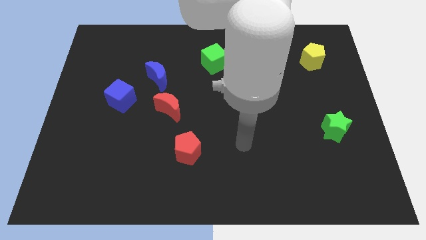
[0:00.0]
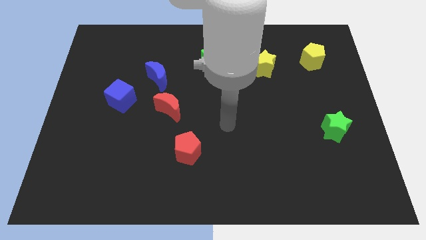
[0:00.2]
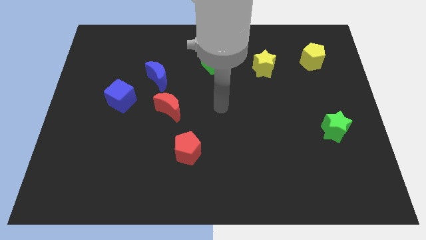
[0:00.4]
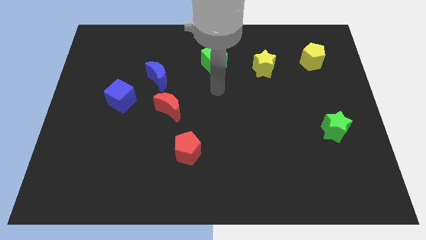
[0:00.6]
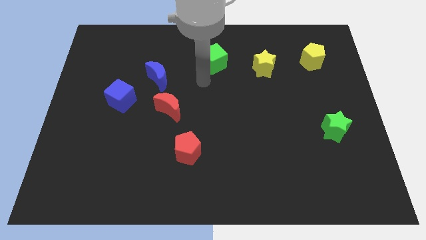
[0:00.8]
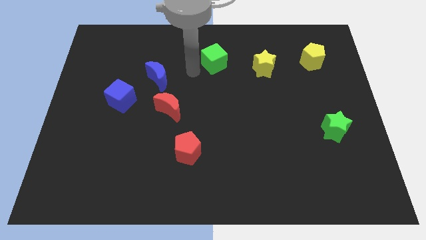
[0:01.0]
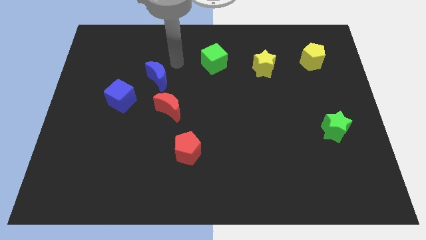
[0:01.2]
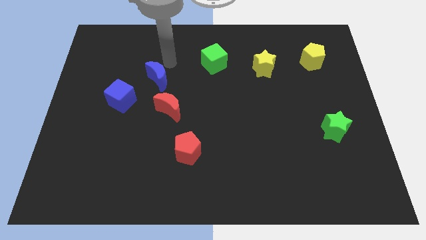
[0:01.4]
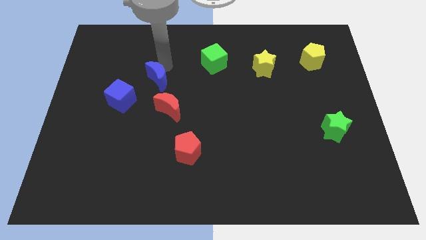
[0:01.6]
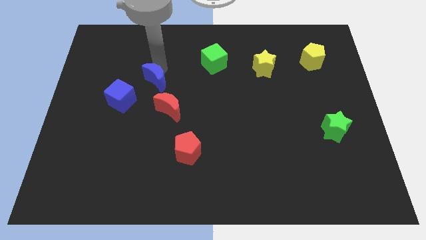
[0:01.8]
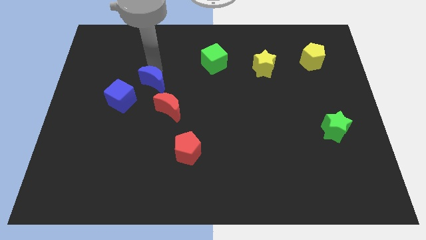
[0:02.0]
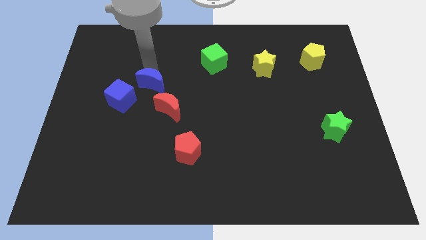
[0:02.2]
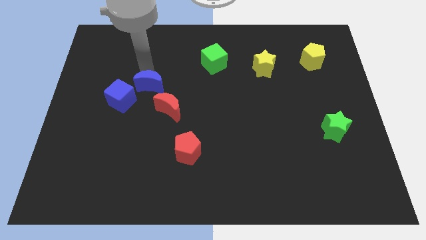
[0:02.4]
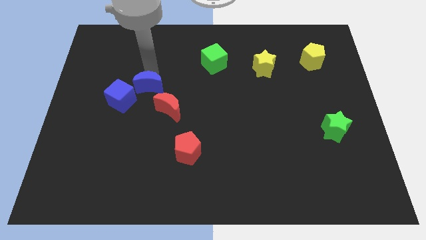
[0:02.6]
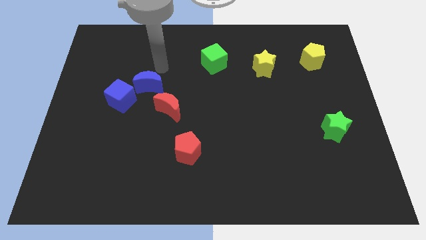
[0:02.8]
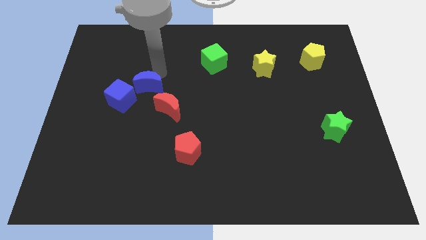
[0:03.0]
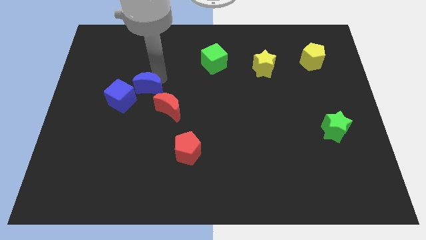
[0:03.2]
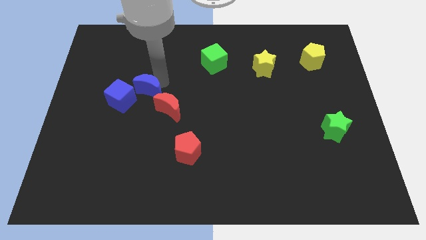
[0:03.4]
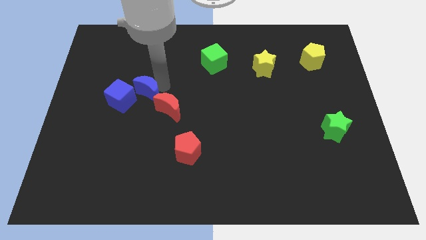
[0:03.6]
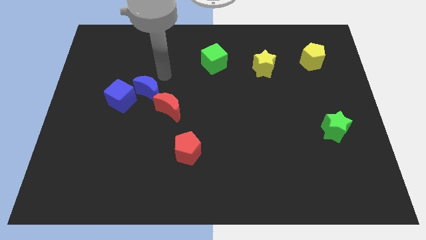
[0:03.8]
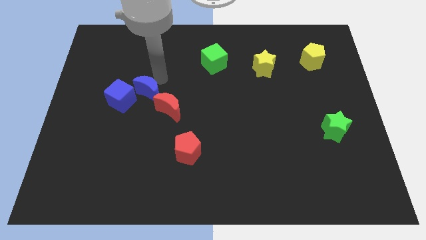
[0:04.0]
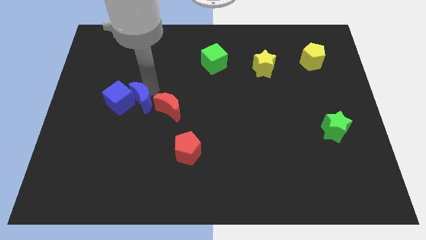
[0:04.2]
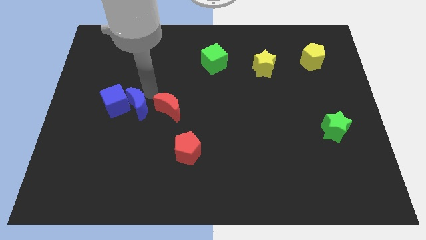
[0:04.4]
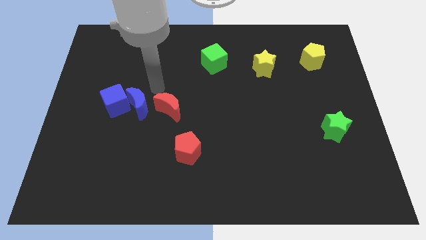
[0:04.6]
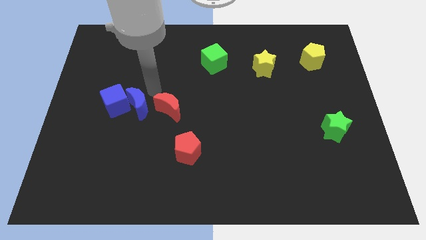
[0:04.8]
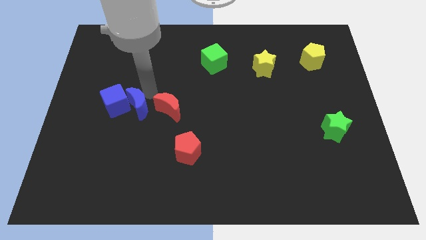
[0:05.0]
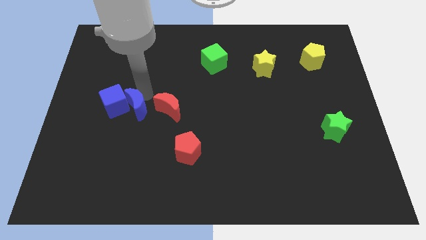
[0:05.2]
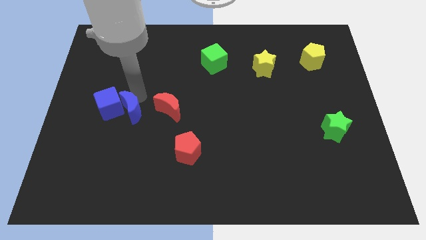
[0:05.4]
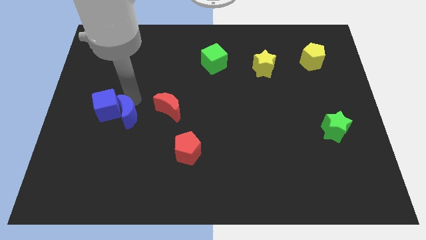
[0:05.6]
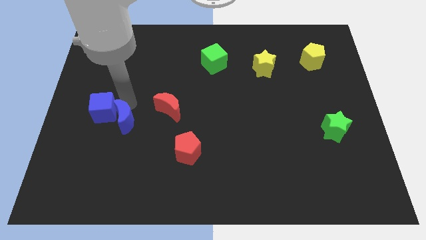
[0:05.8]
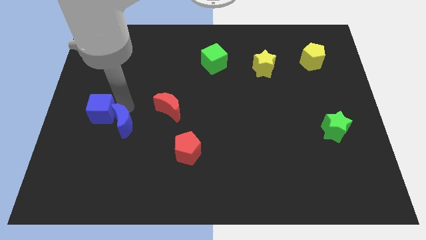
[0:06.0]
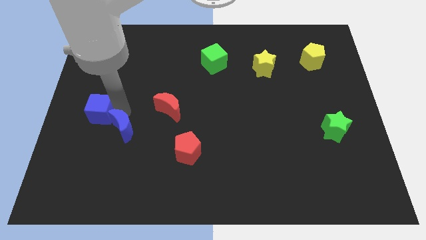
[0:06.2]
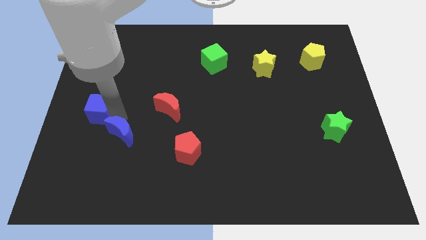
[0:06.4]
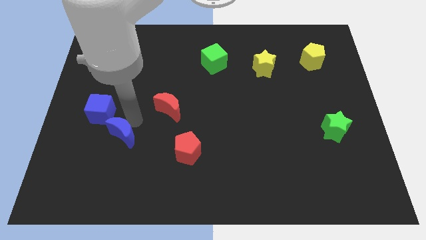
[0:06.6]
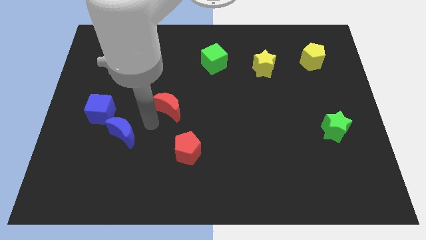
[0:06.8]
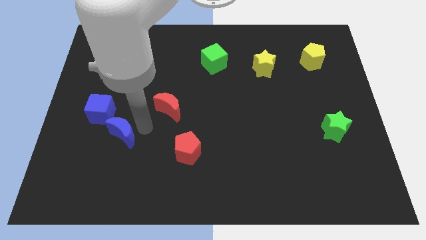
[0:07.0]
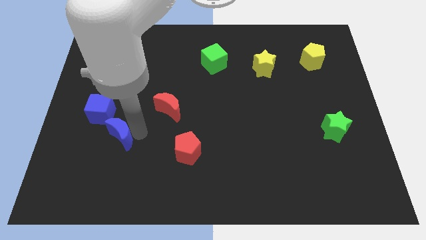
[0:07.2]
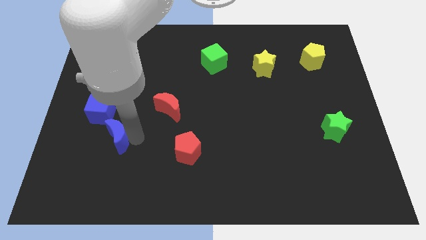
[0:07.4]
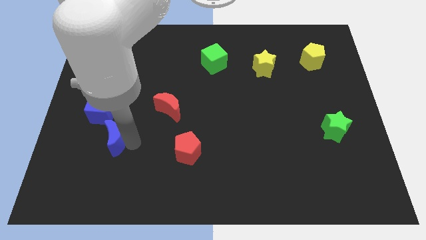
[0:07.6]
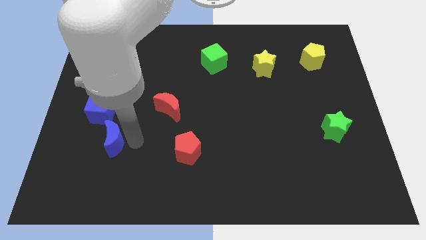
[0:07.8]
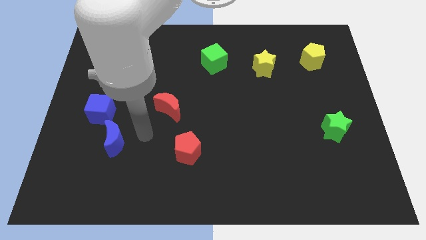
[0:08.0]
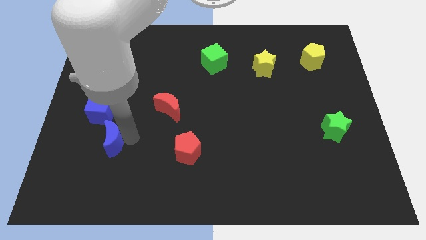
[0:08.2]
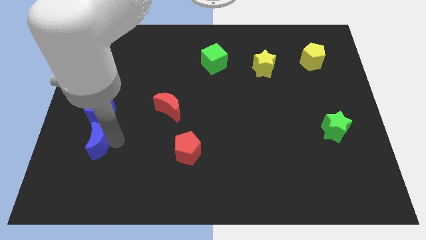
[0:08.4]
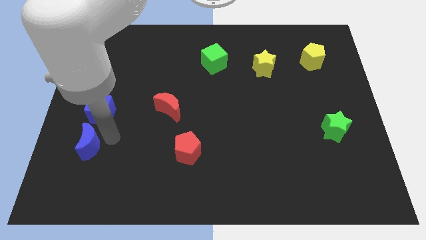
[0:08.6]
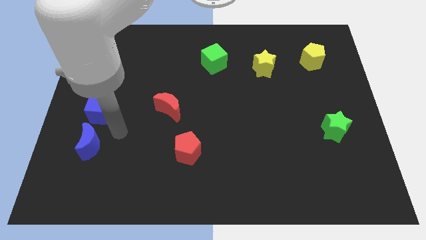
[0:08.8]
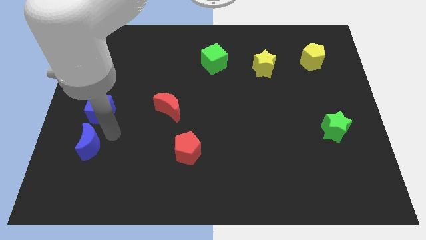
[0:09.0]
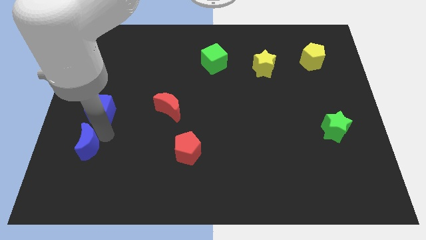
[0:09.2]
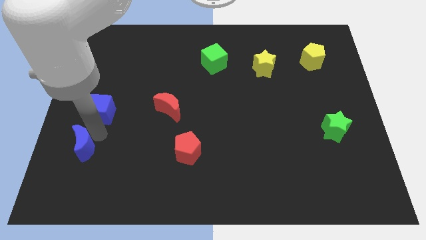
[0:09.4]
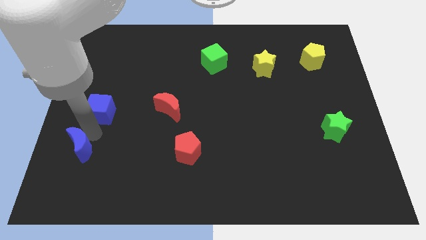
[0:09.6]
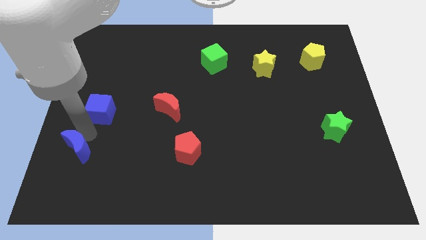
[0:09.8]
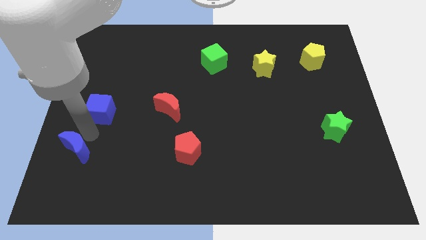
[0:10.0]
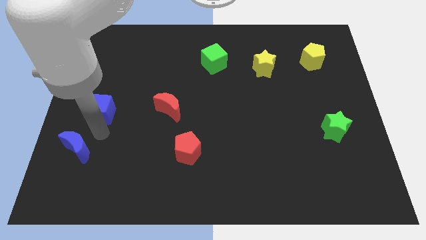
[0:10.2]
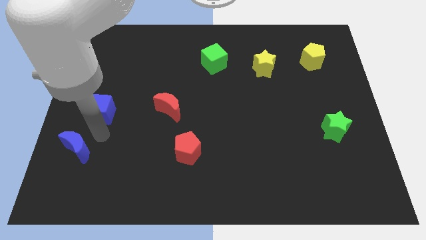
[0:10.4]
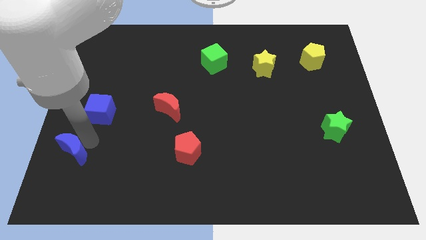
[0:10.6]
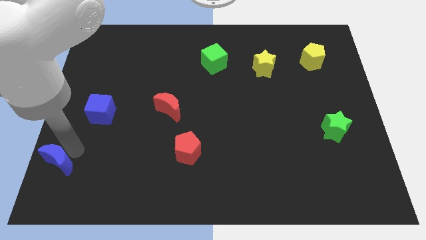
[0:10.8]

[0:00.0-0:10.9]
slide the blue moon to the bottom left of the board

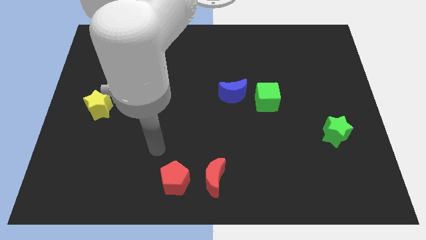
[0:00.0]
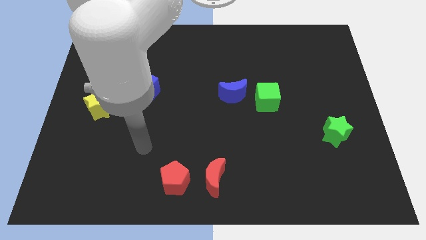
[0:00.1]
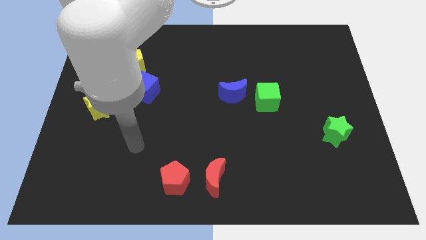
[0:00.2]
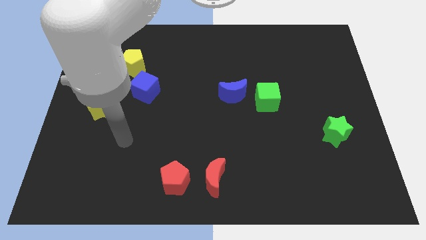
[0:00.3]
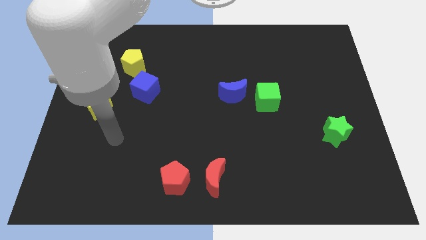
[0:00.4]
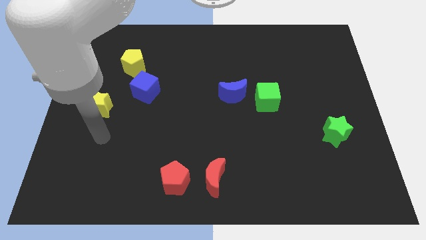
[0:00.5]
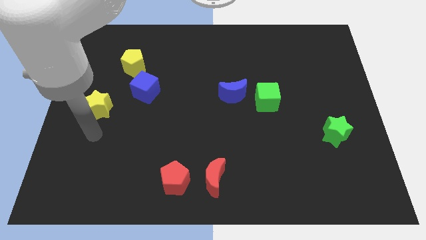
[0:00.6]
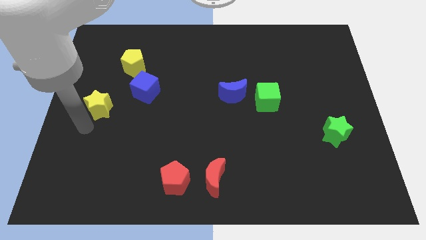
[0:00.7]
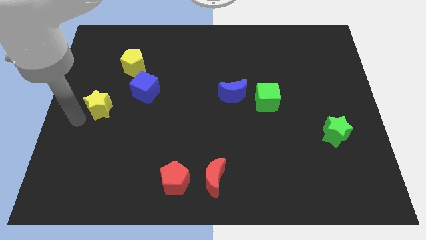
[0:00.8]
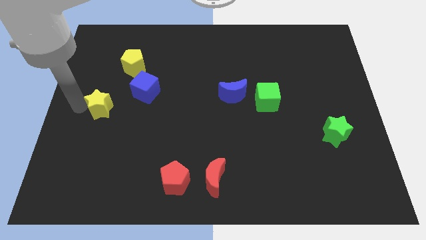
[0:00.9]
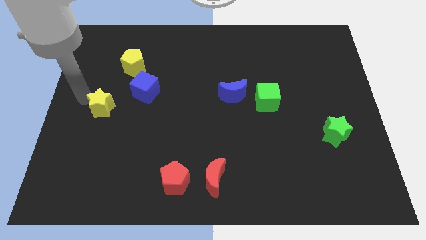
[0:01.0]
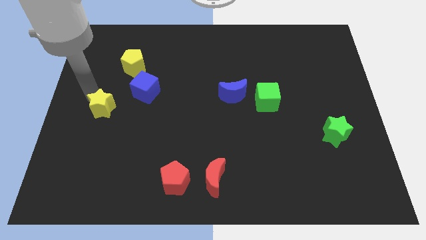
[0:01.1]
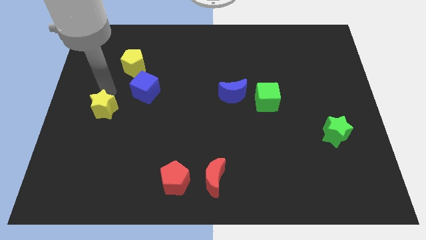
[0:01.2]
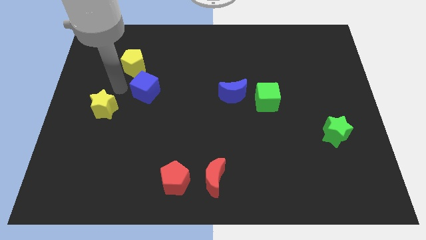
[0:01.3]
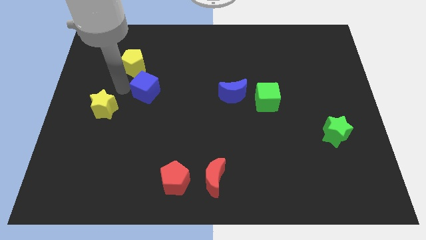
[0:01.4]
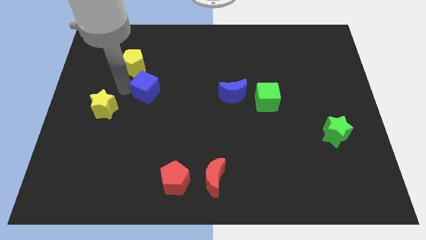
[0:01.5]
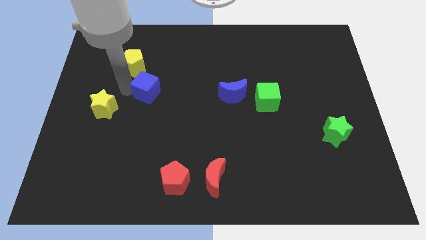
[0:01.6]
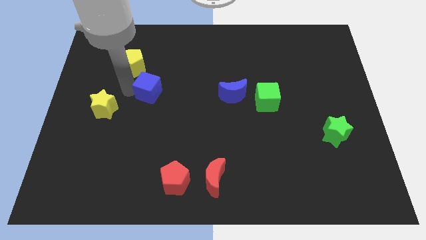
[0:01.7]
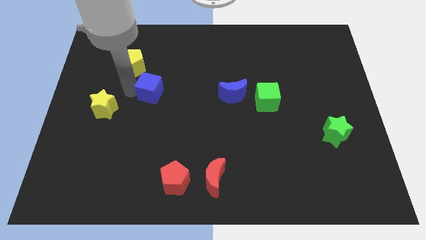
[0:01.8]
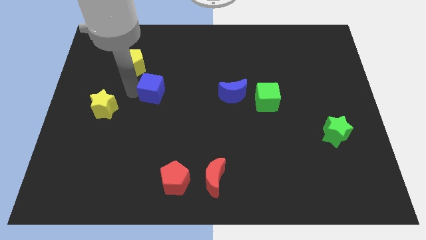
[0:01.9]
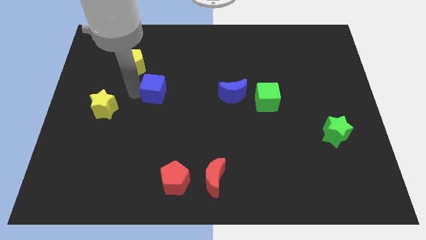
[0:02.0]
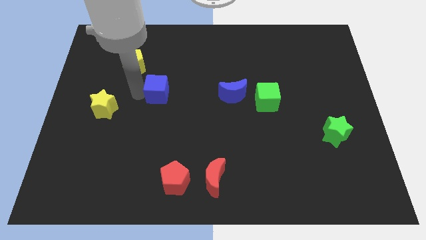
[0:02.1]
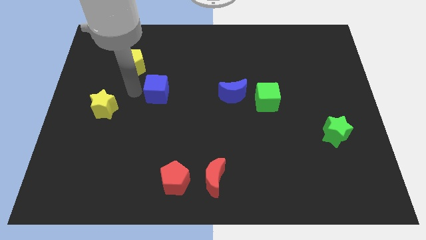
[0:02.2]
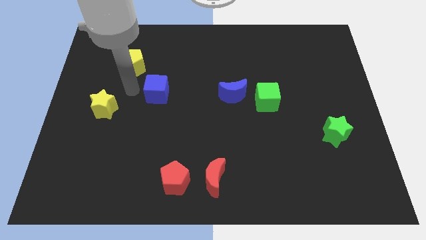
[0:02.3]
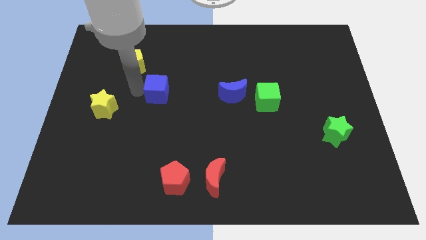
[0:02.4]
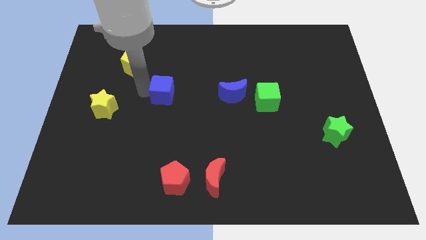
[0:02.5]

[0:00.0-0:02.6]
move the blue cube to the middle
